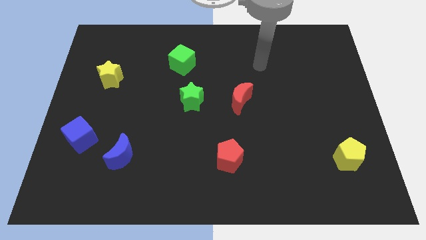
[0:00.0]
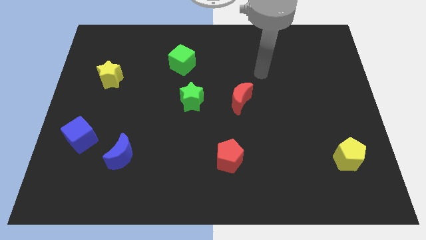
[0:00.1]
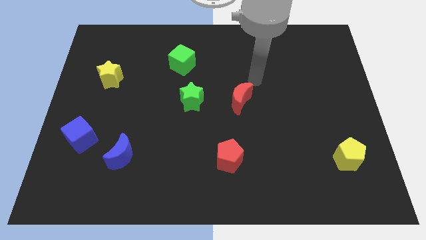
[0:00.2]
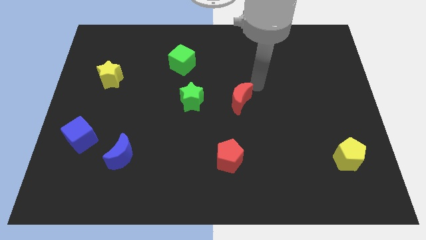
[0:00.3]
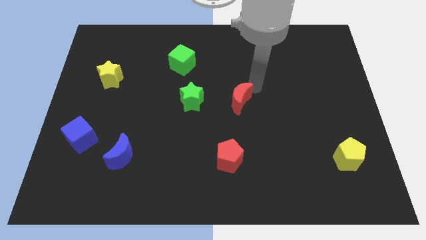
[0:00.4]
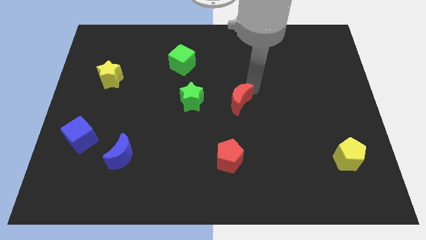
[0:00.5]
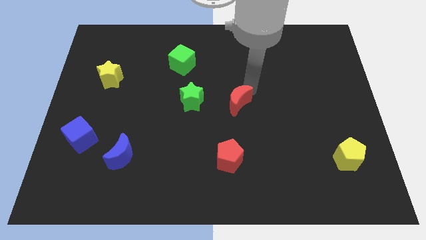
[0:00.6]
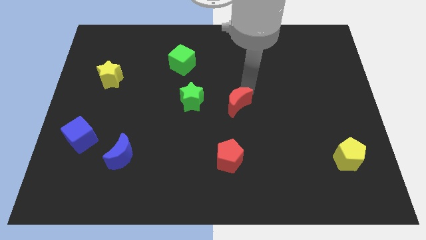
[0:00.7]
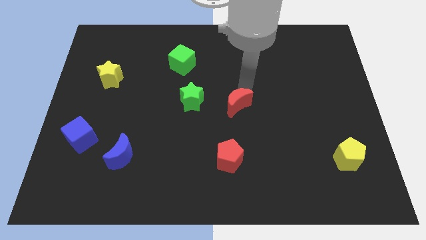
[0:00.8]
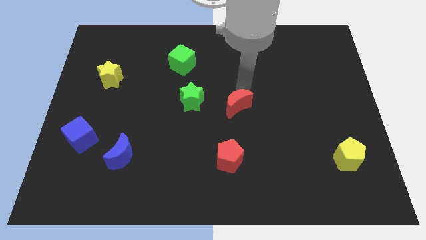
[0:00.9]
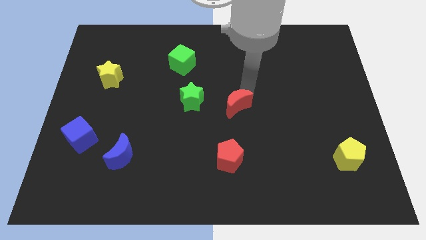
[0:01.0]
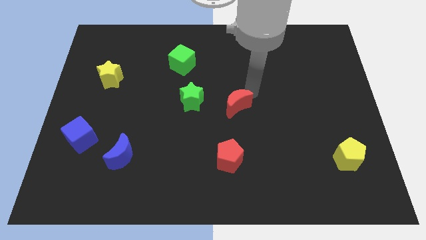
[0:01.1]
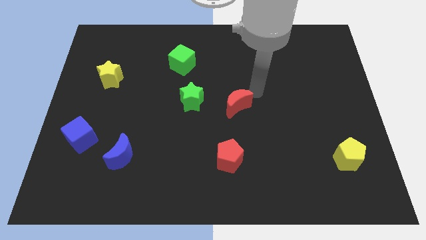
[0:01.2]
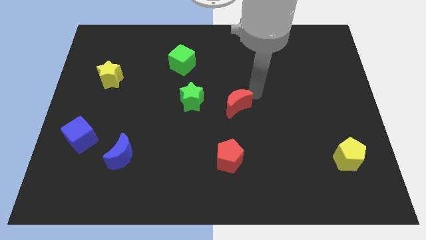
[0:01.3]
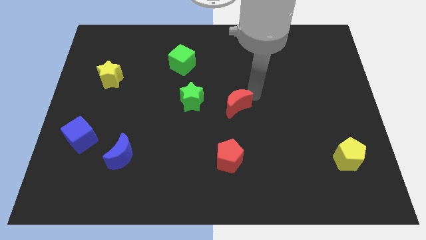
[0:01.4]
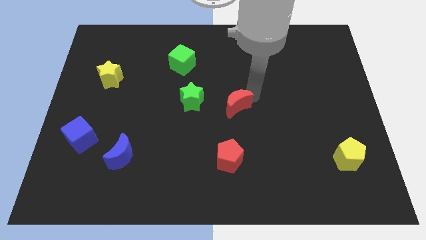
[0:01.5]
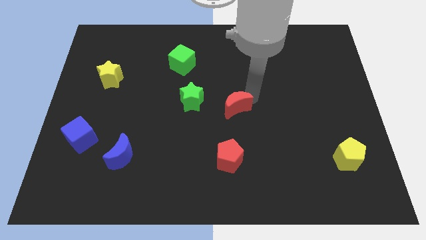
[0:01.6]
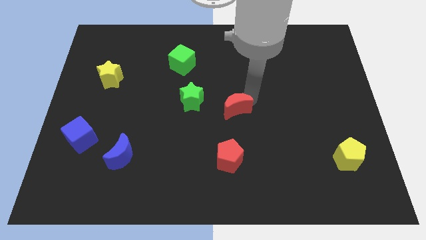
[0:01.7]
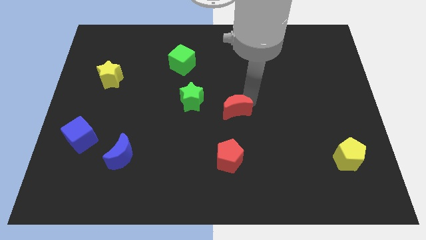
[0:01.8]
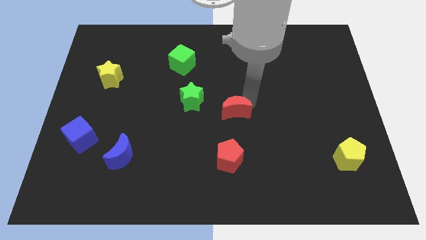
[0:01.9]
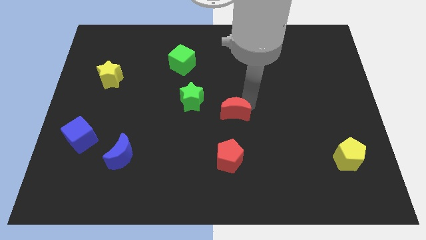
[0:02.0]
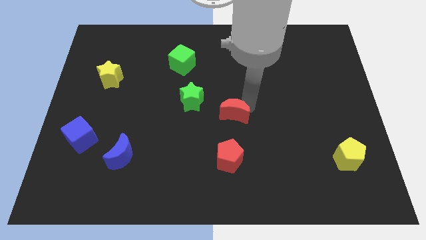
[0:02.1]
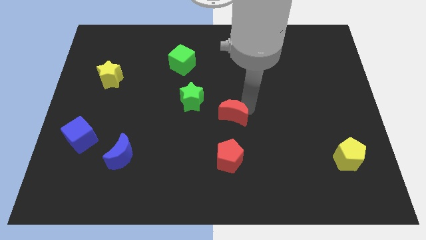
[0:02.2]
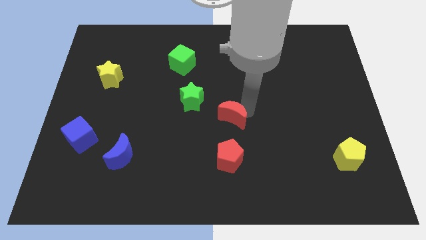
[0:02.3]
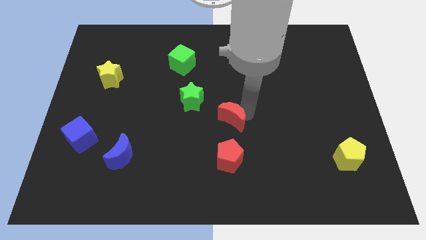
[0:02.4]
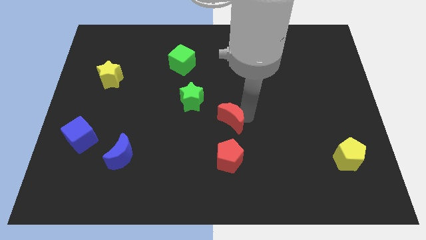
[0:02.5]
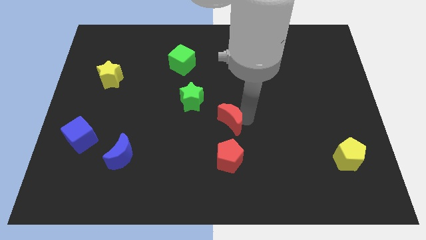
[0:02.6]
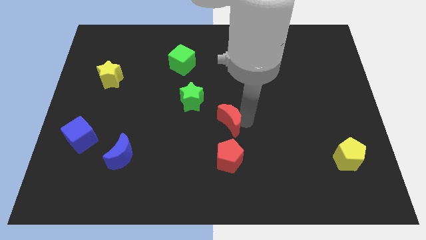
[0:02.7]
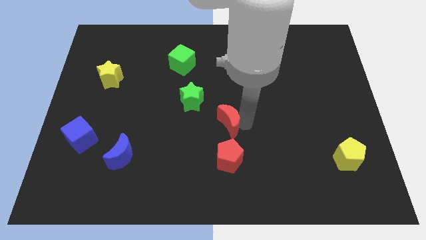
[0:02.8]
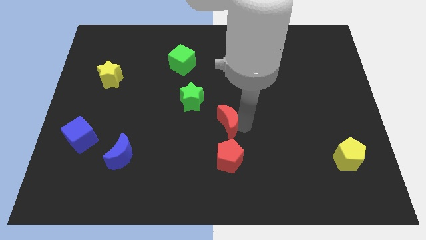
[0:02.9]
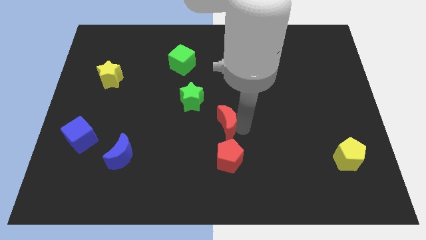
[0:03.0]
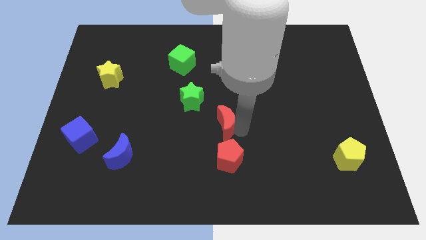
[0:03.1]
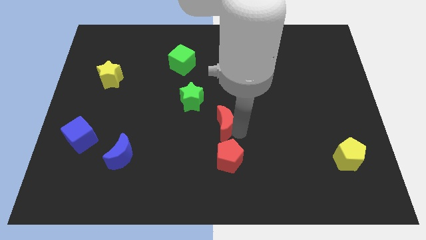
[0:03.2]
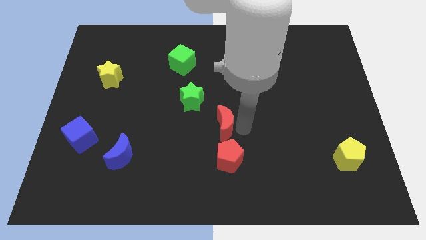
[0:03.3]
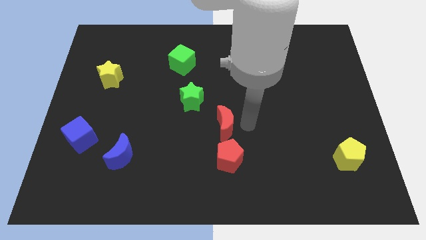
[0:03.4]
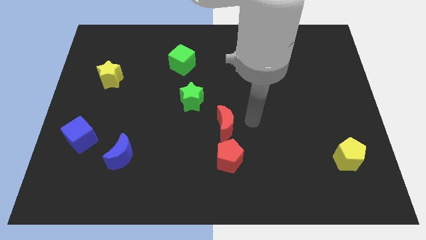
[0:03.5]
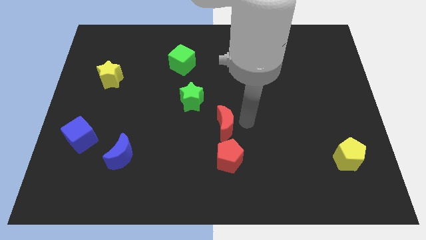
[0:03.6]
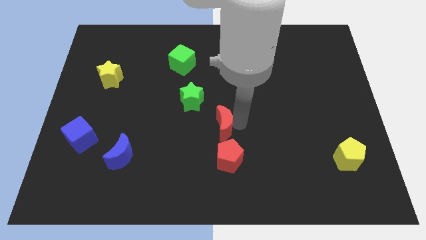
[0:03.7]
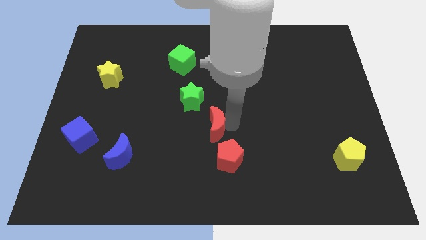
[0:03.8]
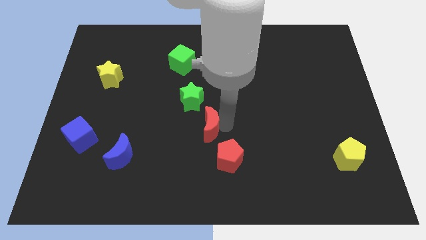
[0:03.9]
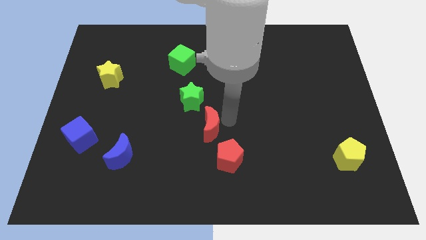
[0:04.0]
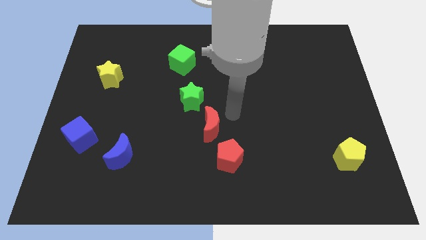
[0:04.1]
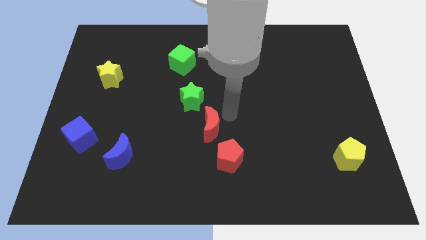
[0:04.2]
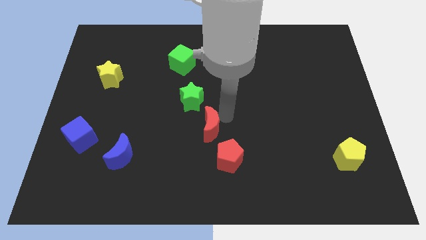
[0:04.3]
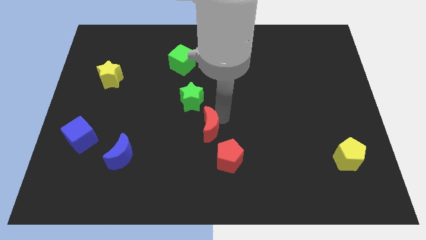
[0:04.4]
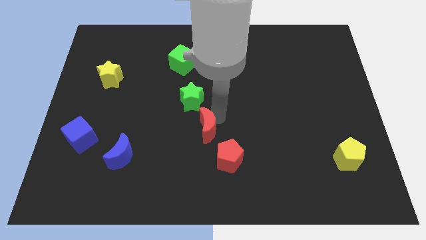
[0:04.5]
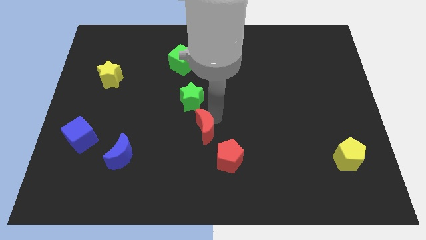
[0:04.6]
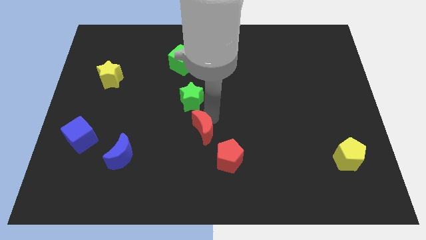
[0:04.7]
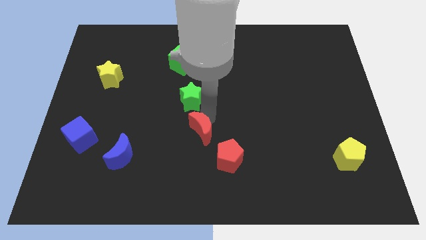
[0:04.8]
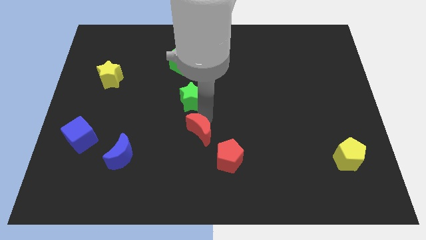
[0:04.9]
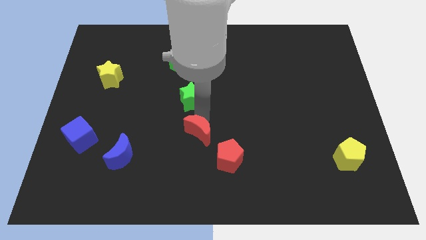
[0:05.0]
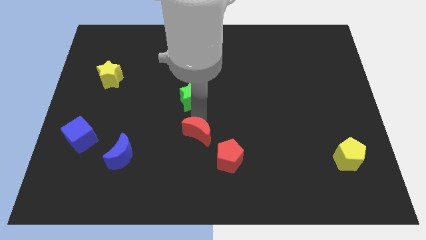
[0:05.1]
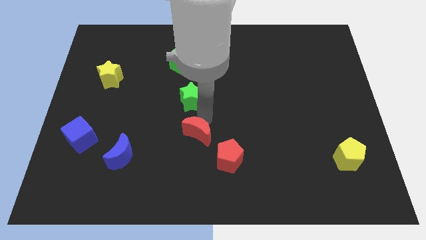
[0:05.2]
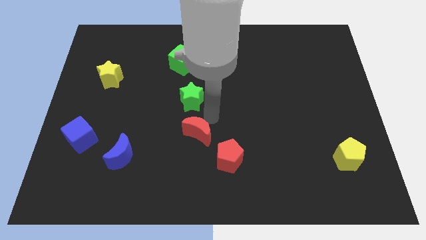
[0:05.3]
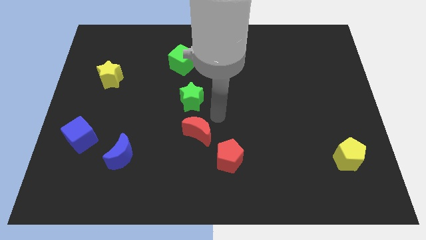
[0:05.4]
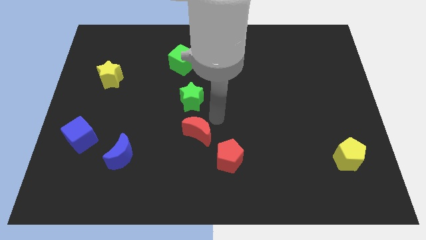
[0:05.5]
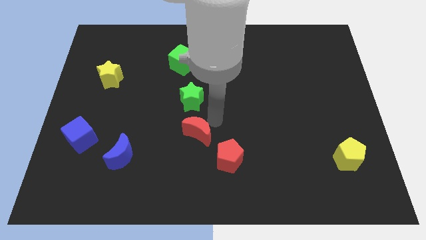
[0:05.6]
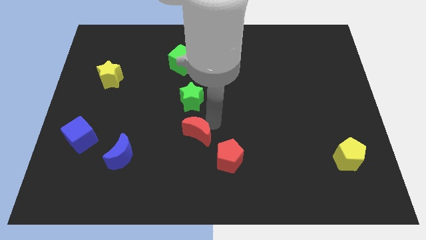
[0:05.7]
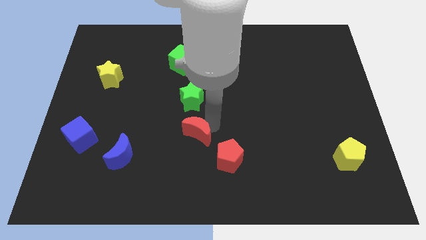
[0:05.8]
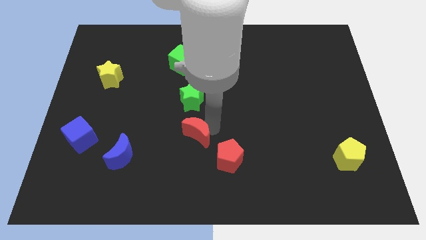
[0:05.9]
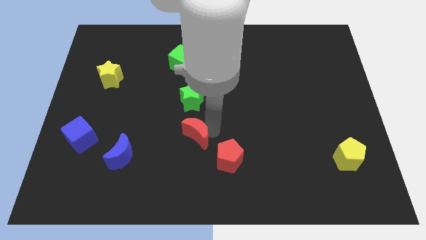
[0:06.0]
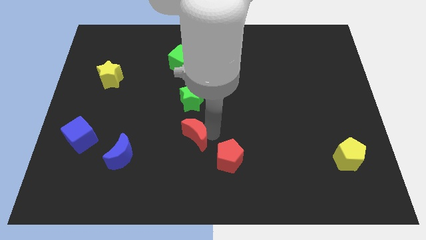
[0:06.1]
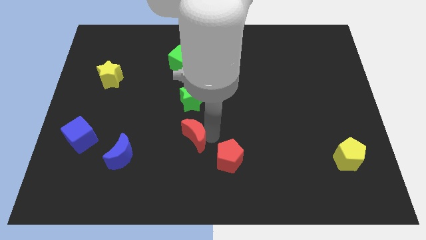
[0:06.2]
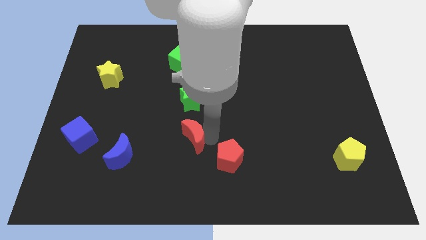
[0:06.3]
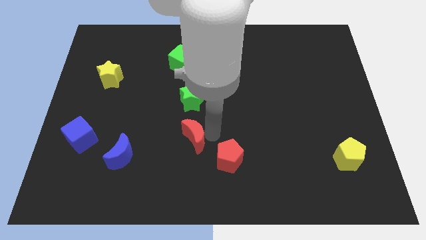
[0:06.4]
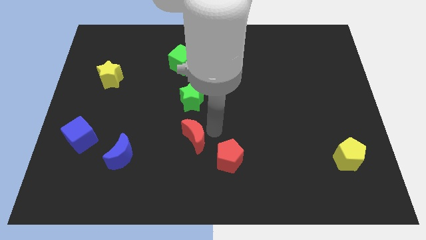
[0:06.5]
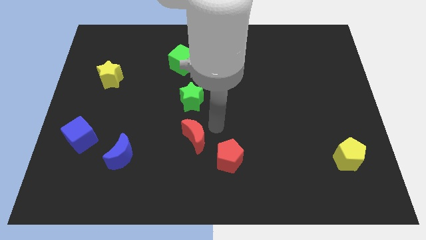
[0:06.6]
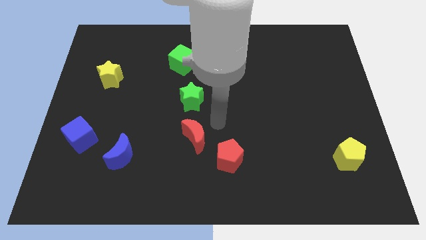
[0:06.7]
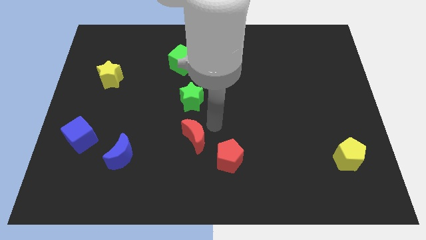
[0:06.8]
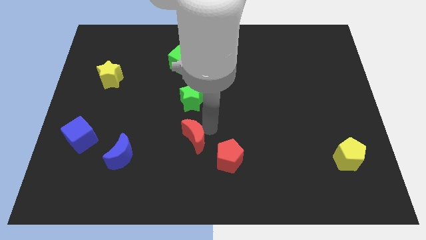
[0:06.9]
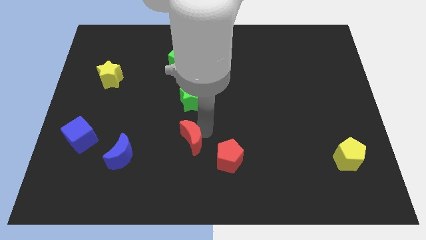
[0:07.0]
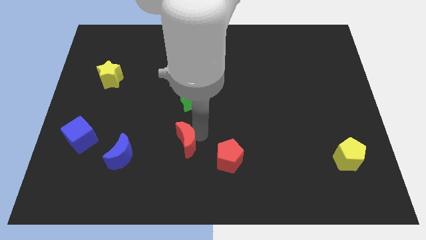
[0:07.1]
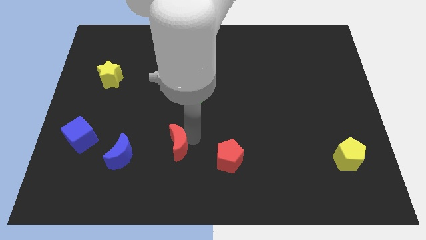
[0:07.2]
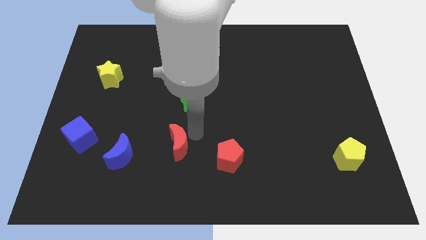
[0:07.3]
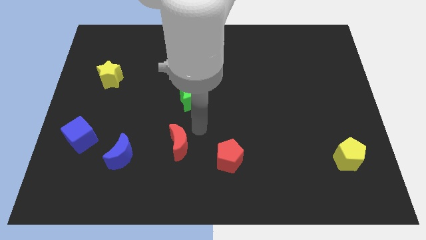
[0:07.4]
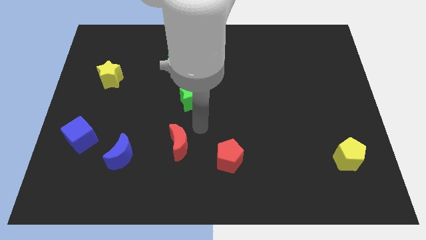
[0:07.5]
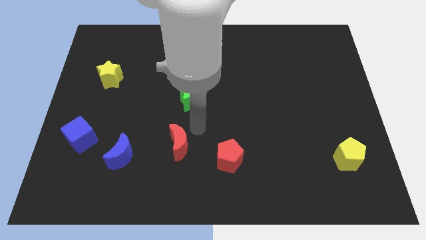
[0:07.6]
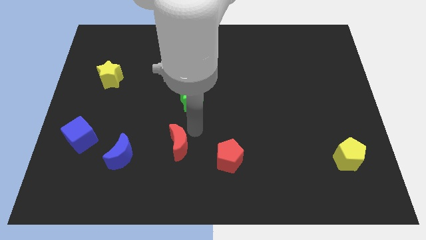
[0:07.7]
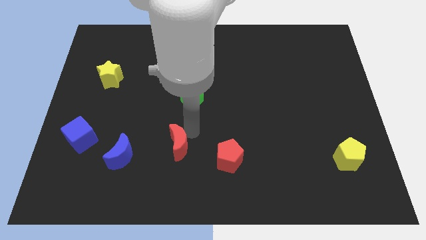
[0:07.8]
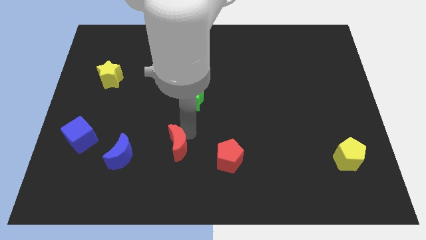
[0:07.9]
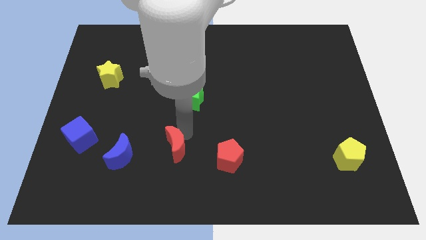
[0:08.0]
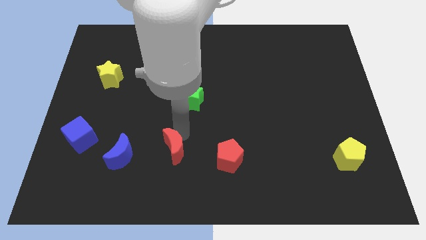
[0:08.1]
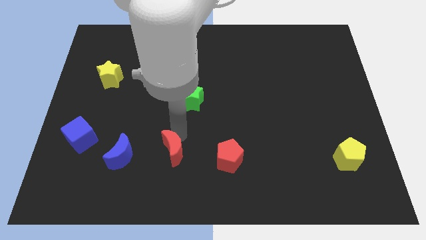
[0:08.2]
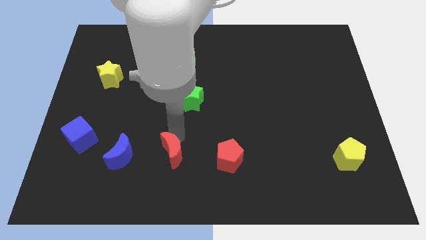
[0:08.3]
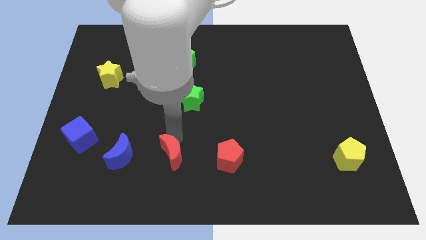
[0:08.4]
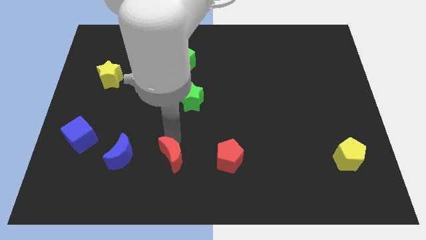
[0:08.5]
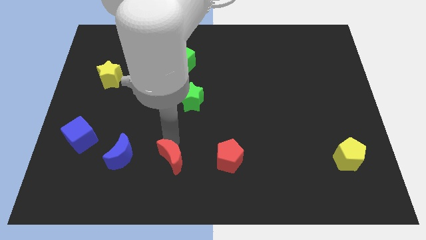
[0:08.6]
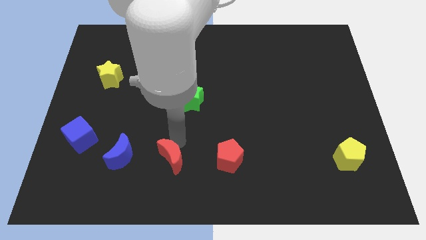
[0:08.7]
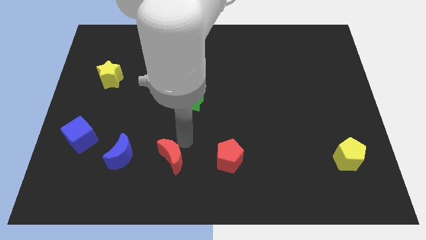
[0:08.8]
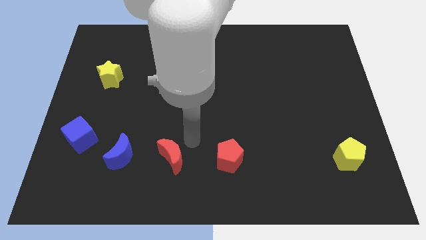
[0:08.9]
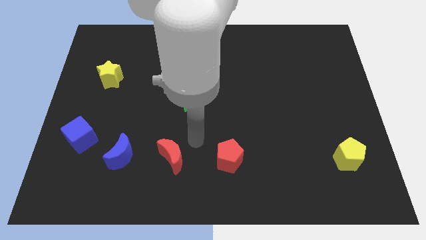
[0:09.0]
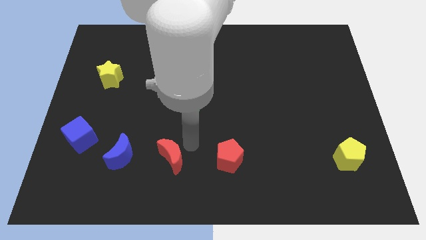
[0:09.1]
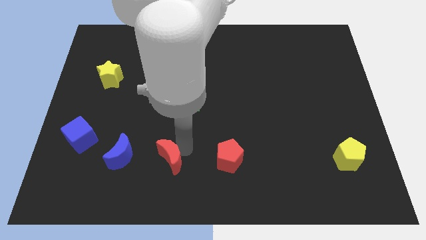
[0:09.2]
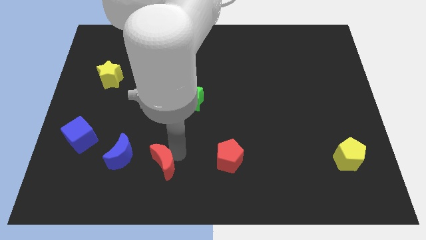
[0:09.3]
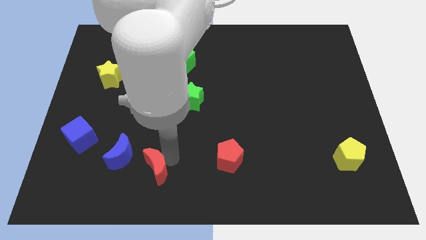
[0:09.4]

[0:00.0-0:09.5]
push the red moon to the bottom right side of the blue moon
